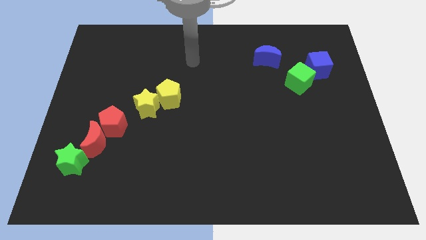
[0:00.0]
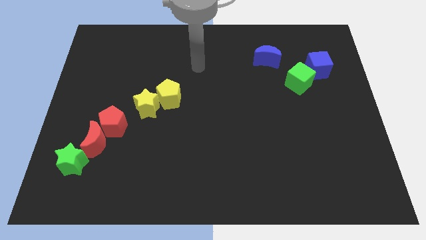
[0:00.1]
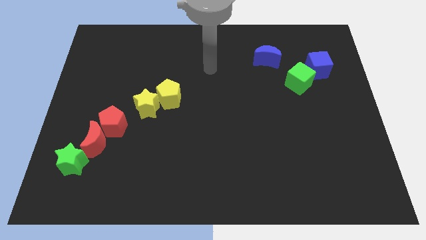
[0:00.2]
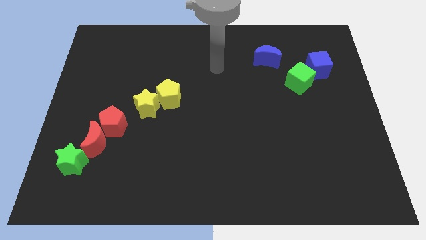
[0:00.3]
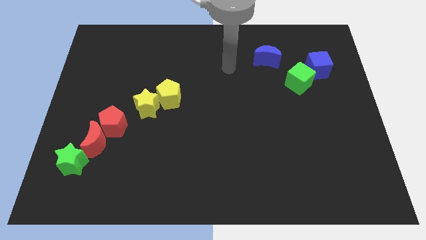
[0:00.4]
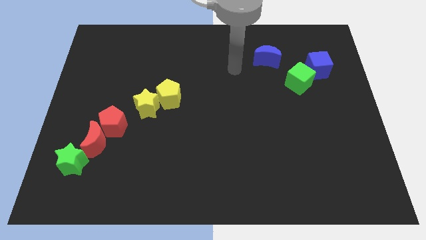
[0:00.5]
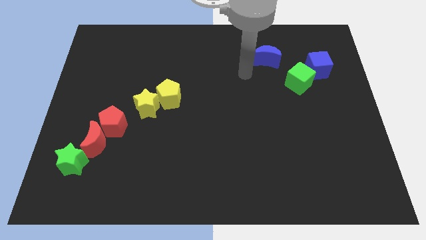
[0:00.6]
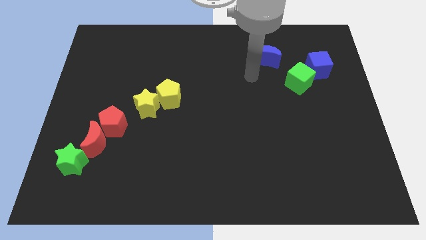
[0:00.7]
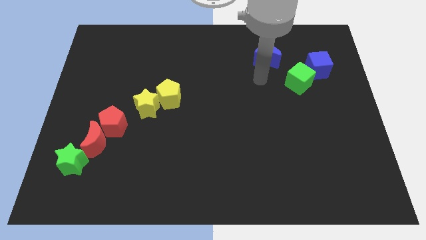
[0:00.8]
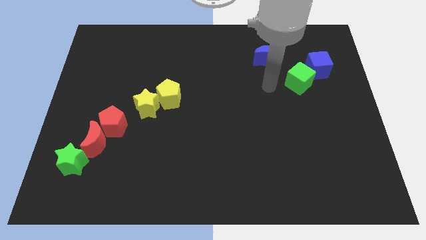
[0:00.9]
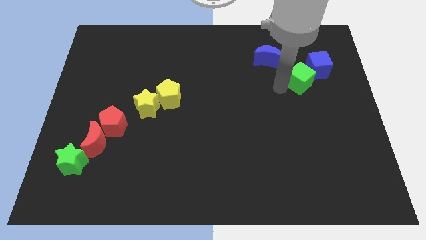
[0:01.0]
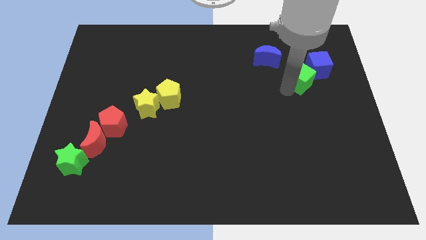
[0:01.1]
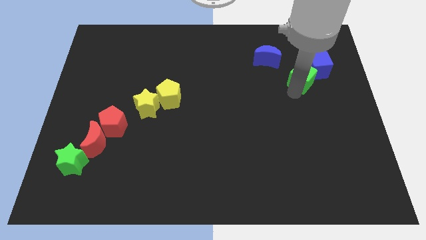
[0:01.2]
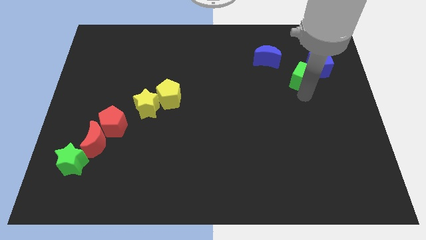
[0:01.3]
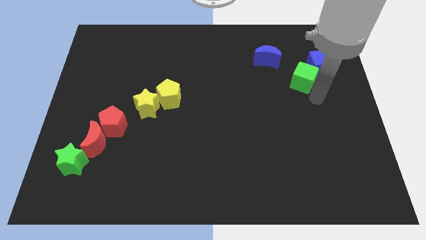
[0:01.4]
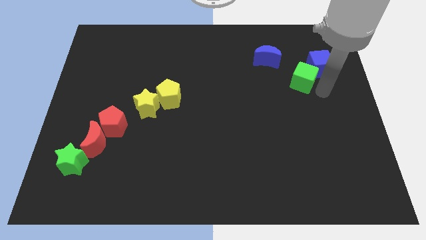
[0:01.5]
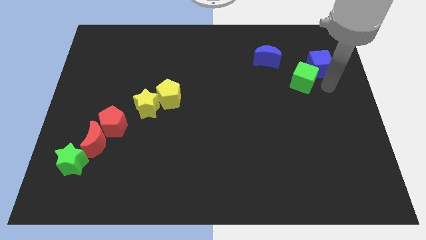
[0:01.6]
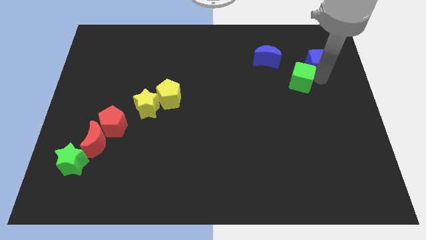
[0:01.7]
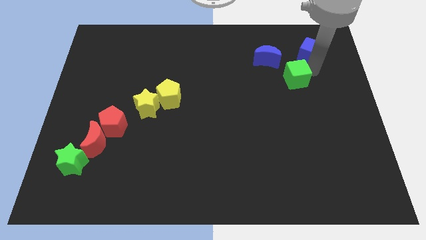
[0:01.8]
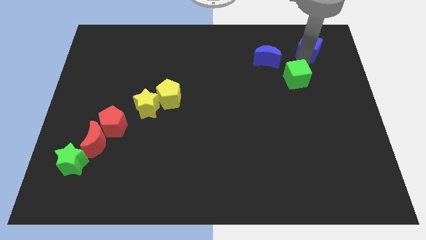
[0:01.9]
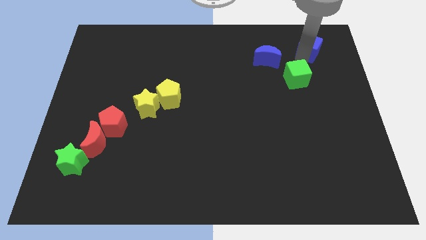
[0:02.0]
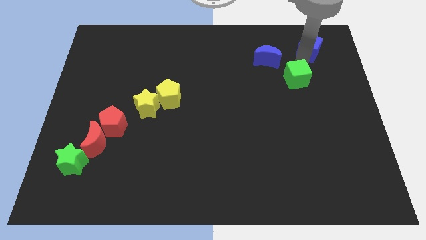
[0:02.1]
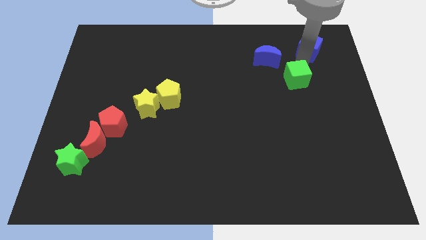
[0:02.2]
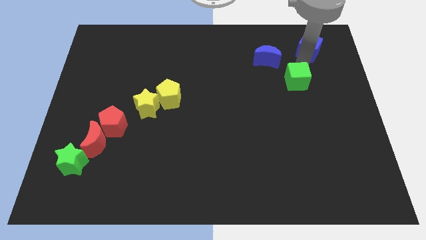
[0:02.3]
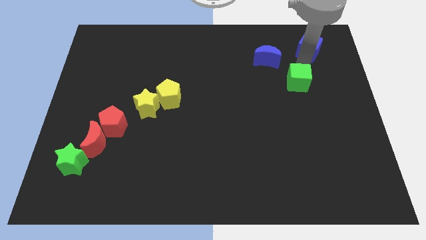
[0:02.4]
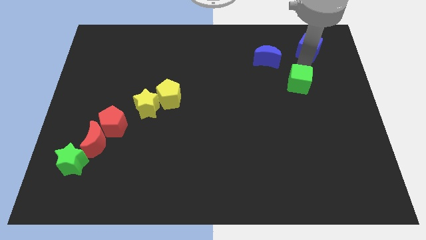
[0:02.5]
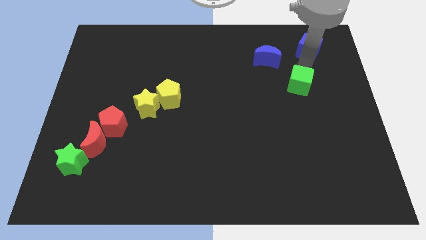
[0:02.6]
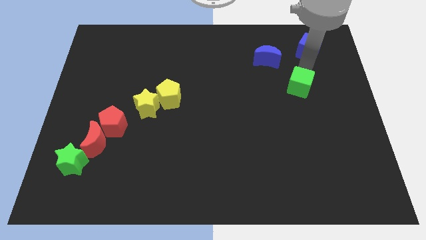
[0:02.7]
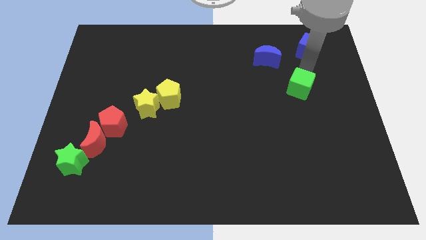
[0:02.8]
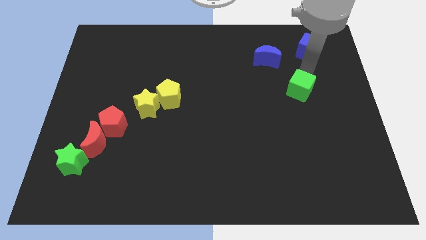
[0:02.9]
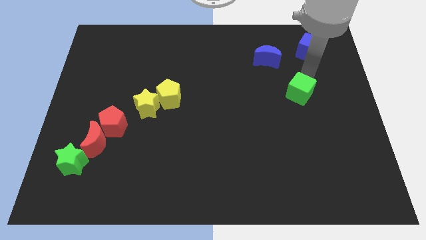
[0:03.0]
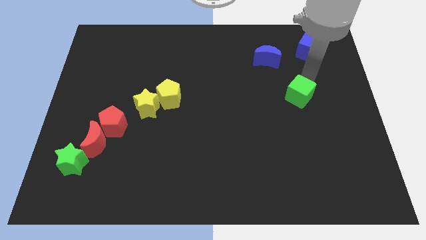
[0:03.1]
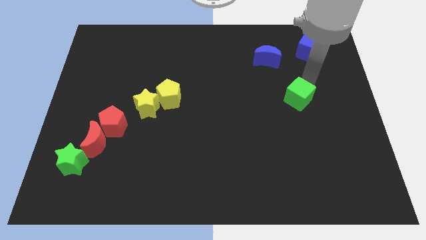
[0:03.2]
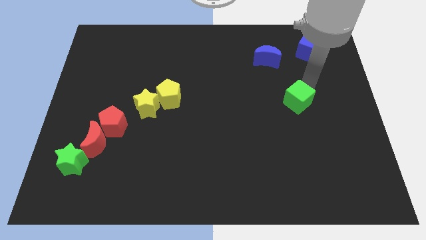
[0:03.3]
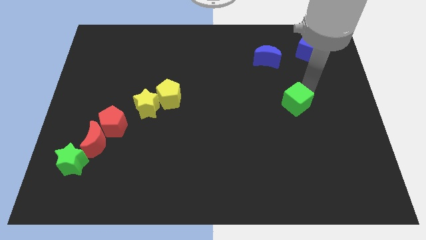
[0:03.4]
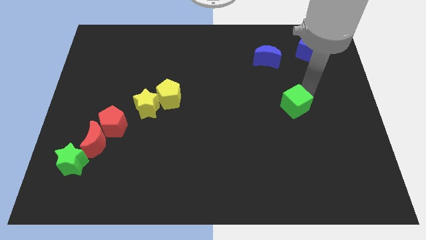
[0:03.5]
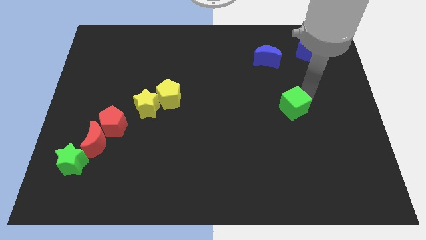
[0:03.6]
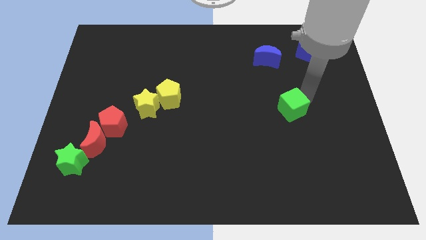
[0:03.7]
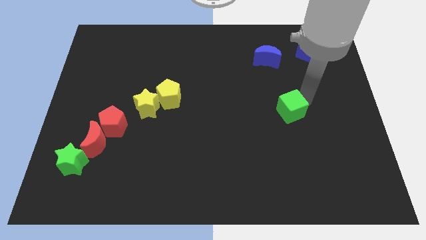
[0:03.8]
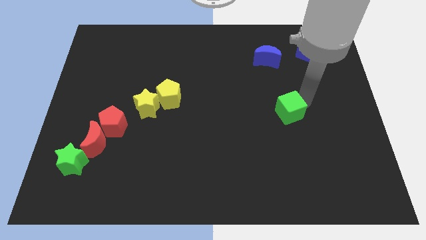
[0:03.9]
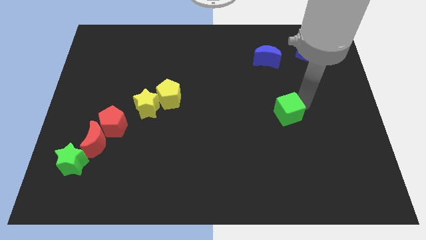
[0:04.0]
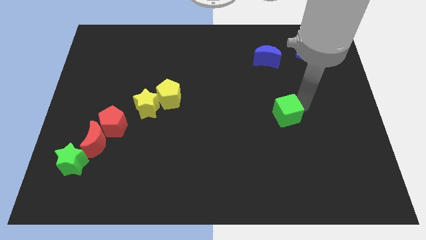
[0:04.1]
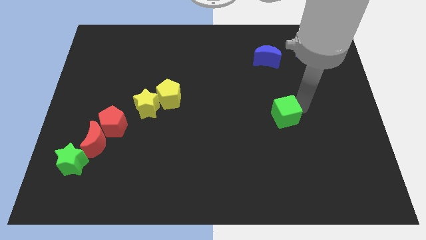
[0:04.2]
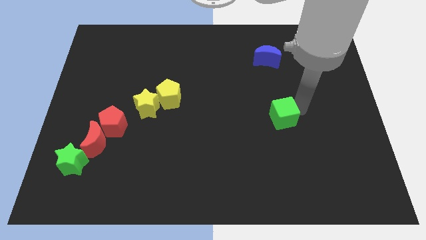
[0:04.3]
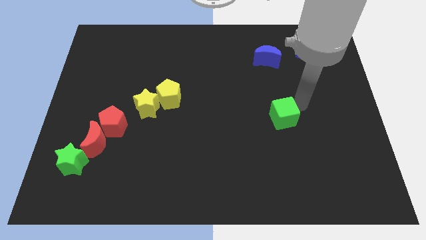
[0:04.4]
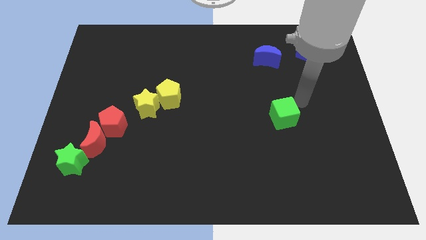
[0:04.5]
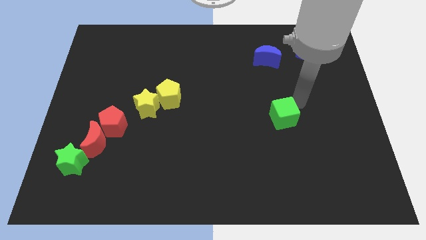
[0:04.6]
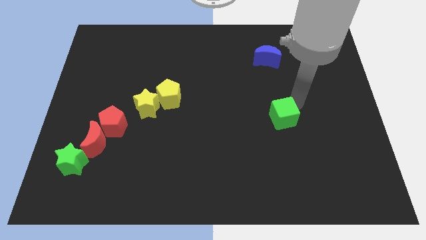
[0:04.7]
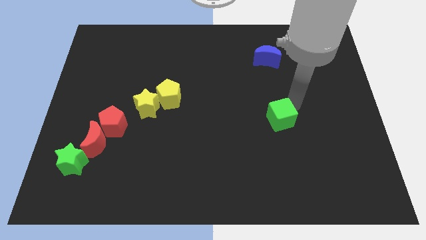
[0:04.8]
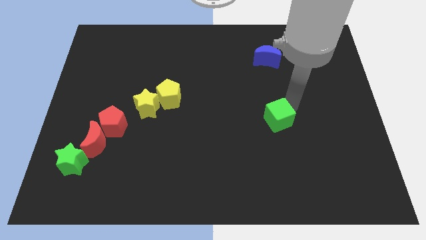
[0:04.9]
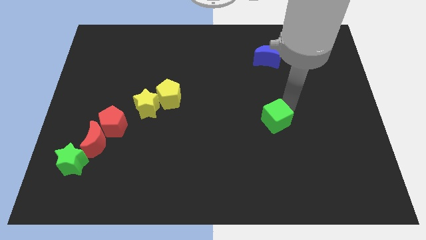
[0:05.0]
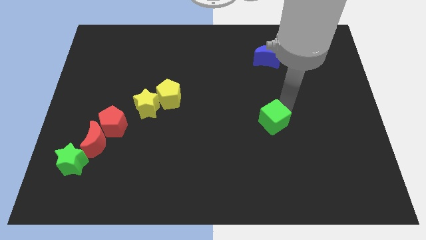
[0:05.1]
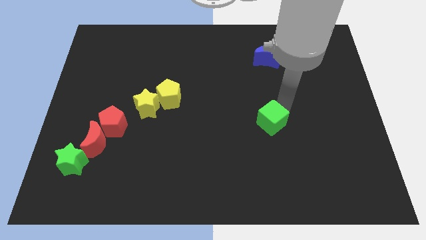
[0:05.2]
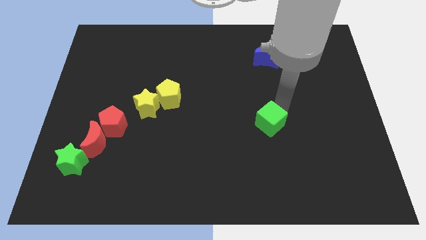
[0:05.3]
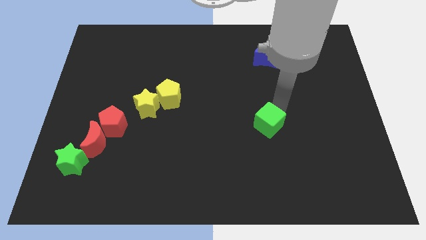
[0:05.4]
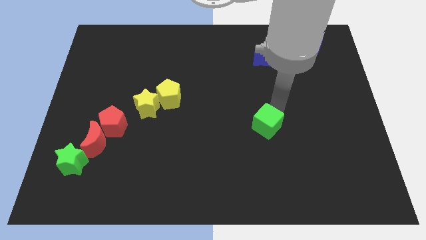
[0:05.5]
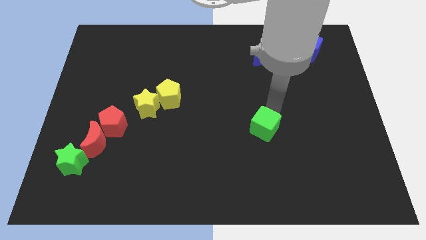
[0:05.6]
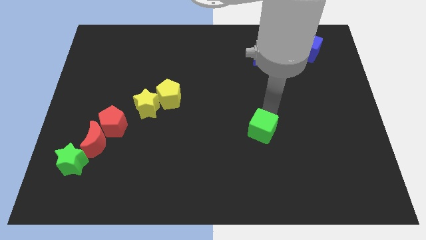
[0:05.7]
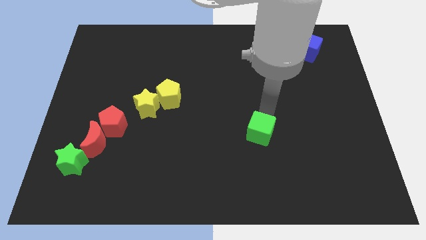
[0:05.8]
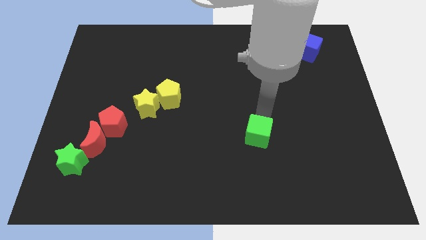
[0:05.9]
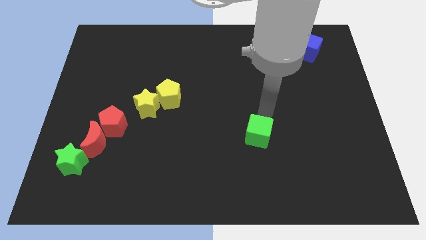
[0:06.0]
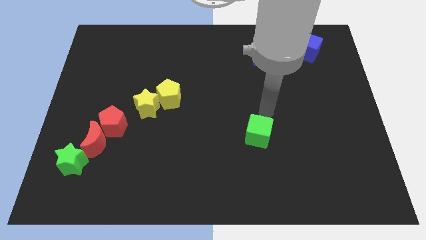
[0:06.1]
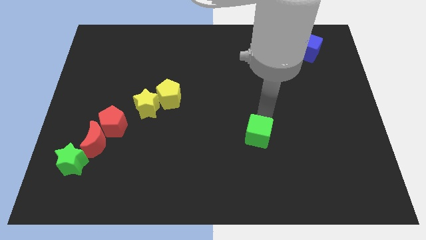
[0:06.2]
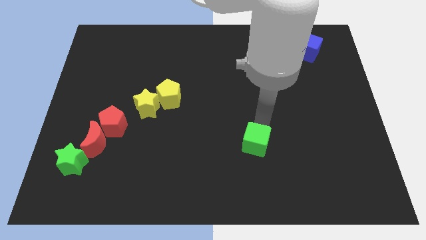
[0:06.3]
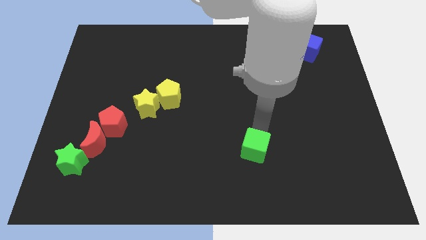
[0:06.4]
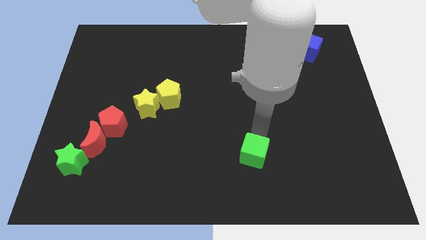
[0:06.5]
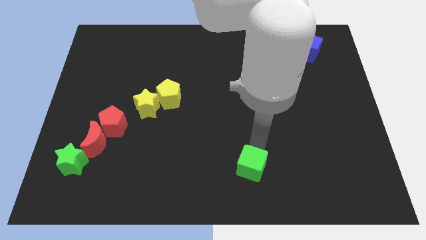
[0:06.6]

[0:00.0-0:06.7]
move the green cube to the bottom

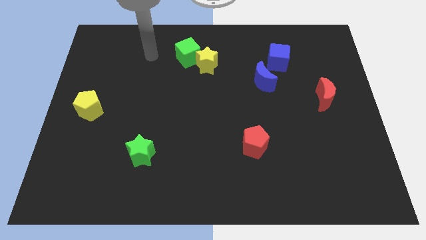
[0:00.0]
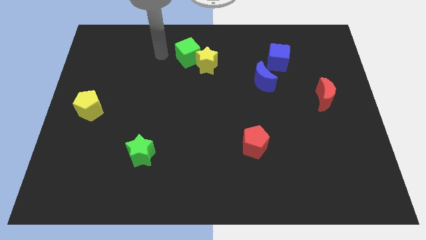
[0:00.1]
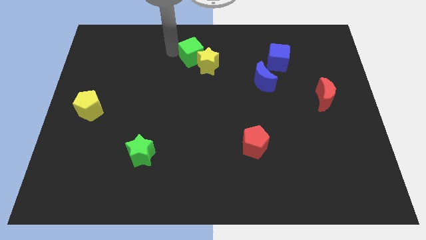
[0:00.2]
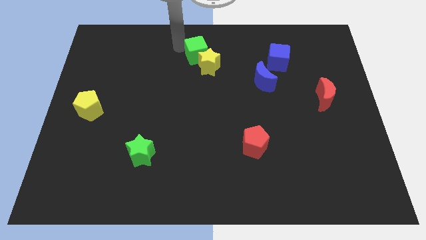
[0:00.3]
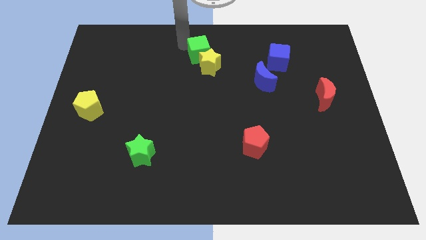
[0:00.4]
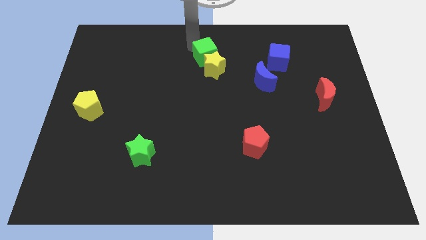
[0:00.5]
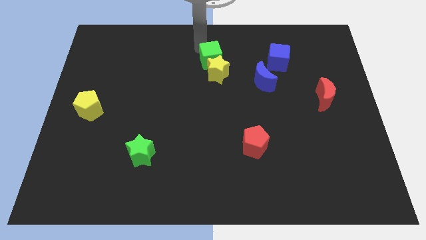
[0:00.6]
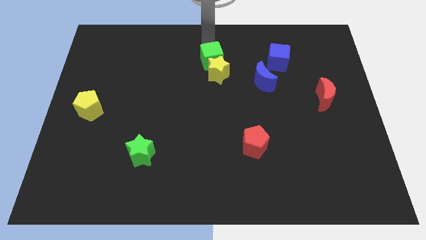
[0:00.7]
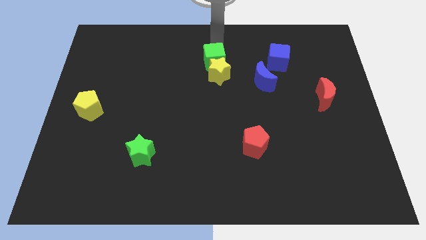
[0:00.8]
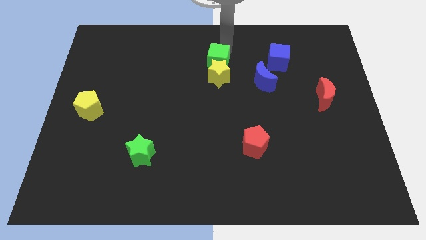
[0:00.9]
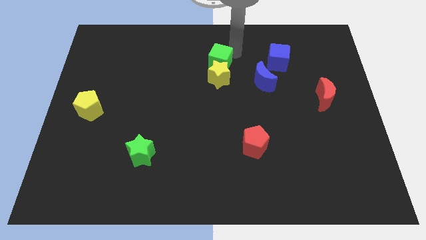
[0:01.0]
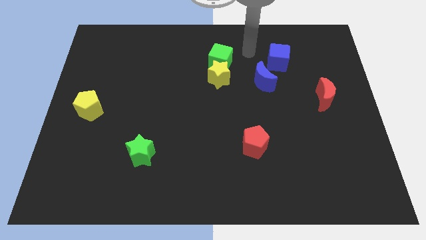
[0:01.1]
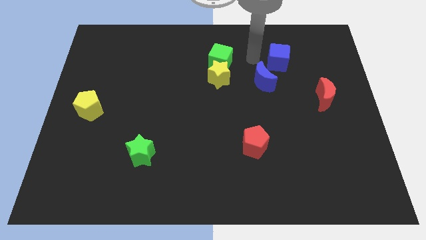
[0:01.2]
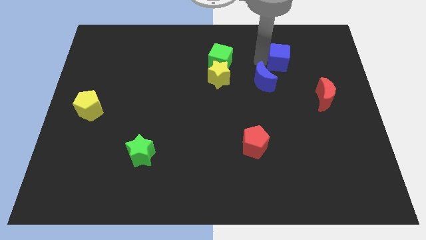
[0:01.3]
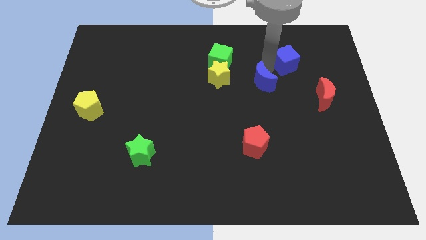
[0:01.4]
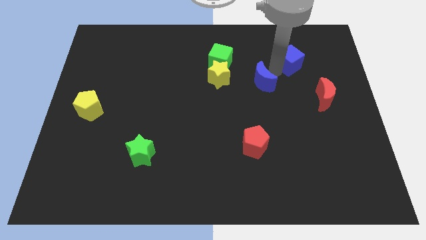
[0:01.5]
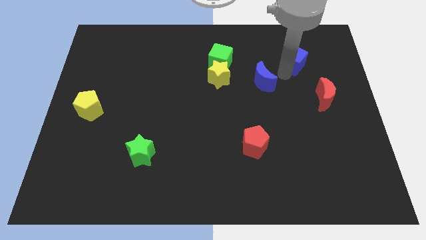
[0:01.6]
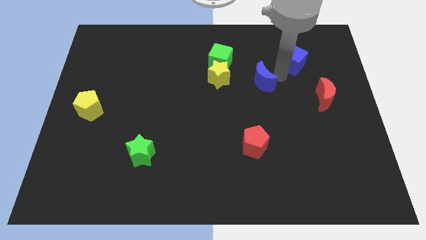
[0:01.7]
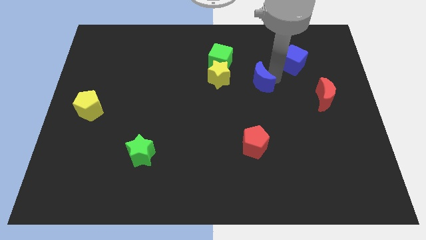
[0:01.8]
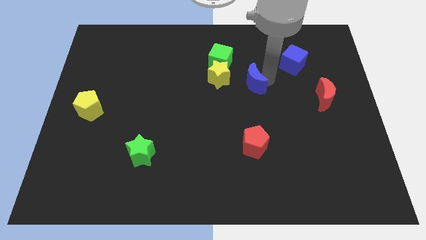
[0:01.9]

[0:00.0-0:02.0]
slide the blue moon to the center of the board
